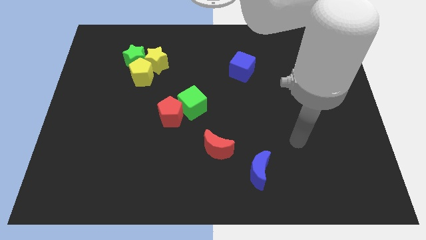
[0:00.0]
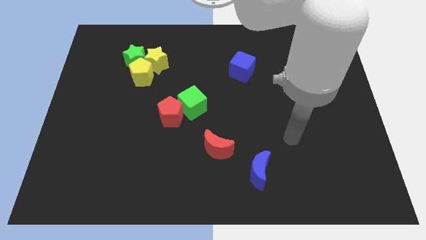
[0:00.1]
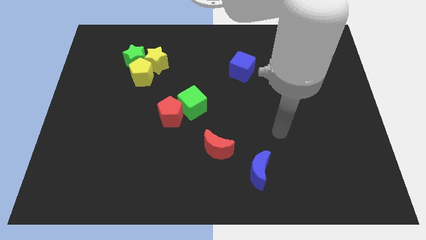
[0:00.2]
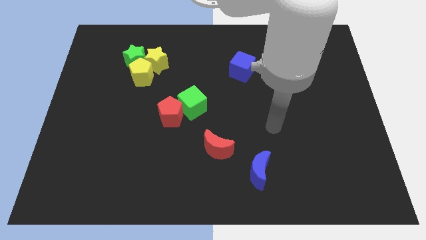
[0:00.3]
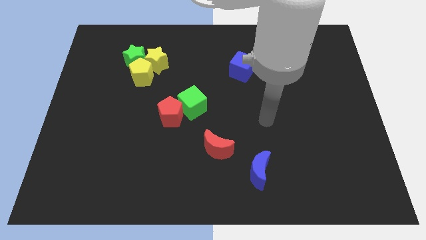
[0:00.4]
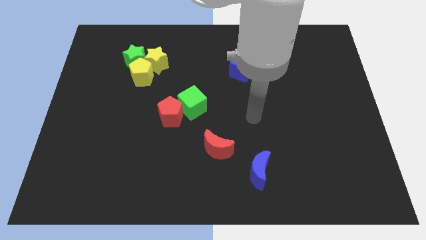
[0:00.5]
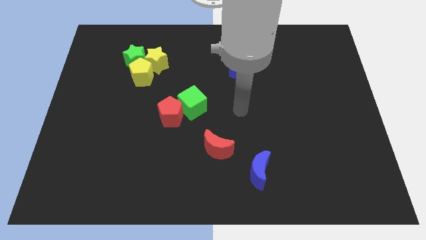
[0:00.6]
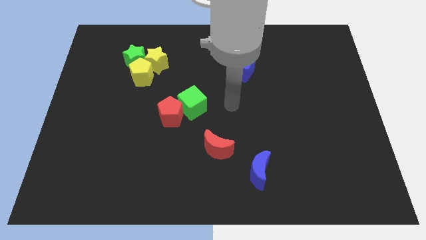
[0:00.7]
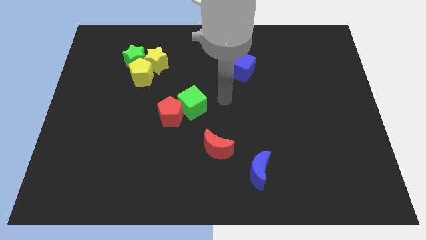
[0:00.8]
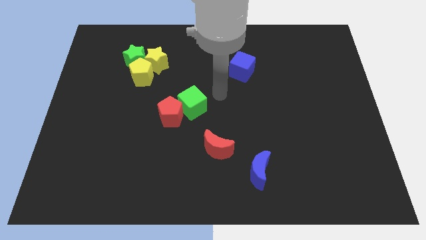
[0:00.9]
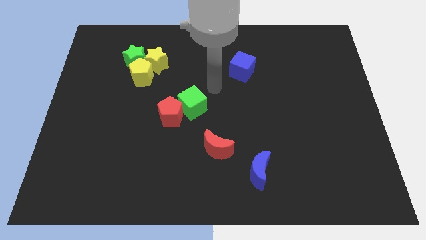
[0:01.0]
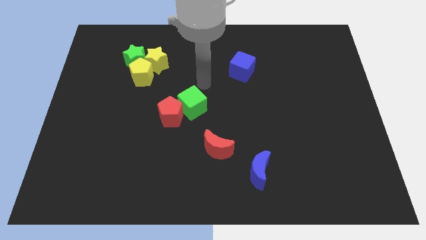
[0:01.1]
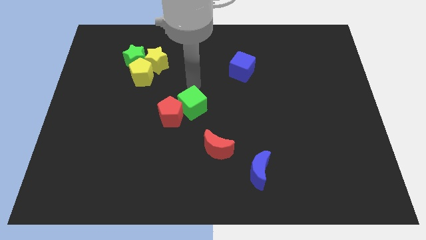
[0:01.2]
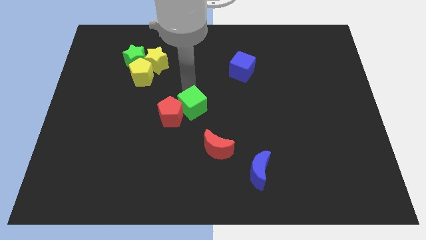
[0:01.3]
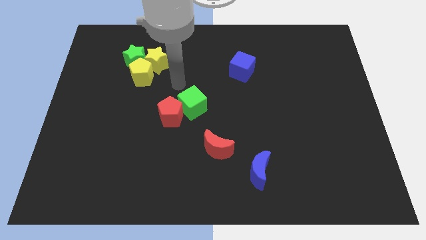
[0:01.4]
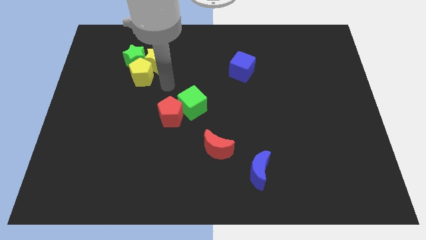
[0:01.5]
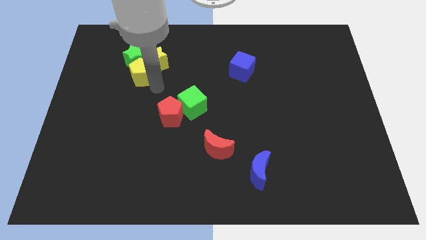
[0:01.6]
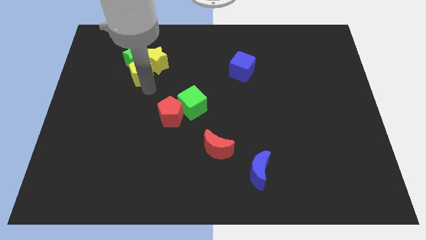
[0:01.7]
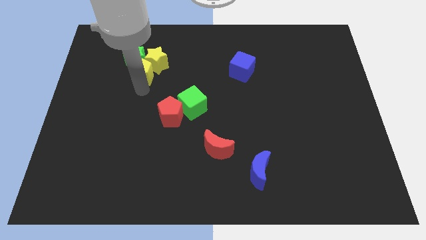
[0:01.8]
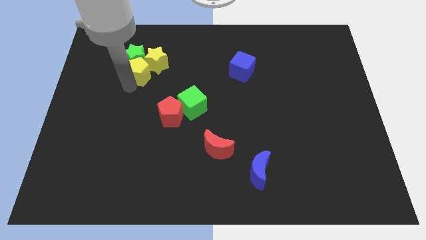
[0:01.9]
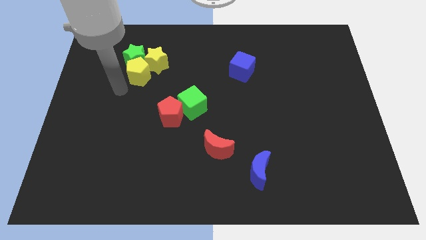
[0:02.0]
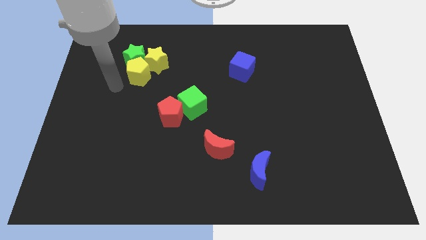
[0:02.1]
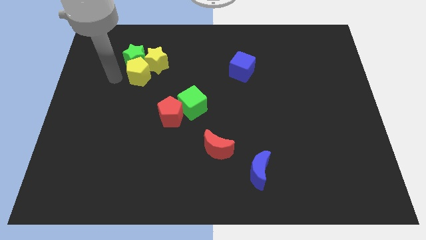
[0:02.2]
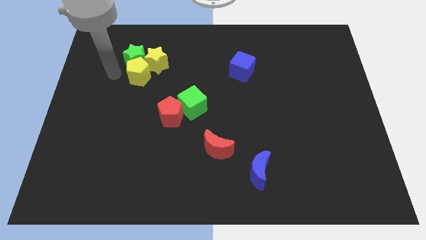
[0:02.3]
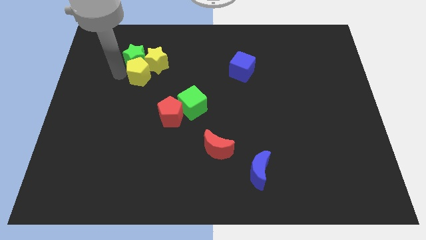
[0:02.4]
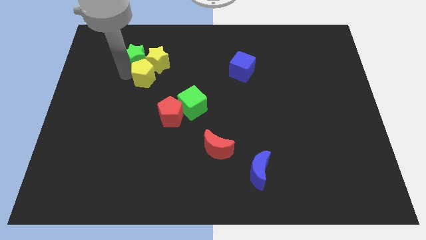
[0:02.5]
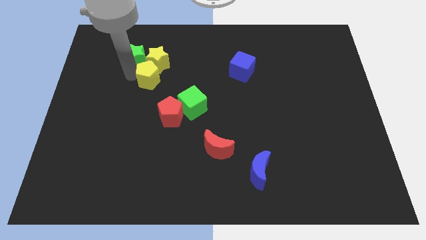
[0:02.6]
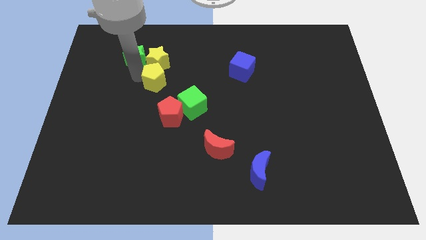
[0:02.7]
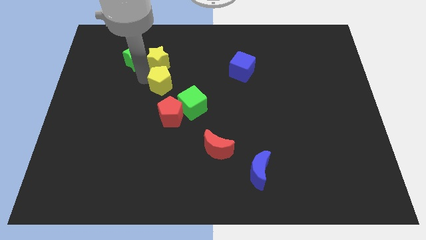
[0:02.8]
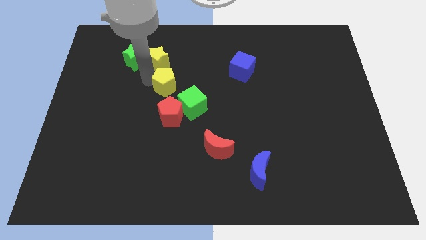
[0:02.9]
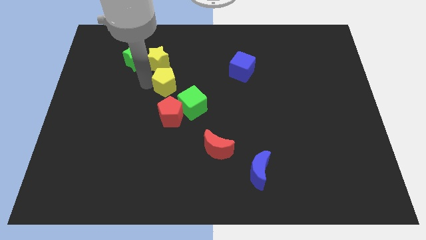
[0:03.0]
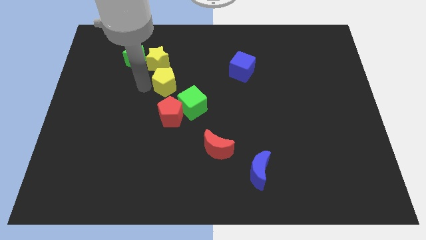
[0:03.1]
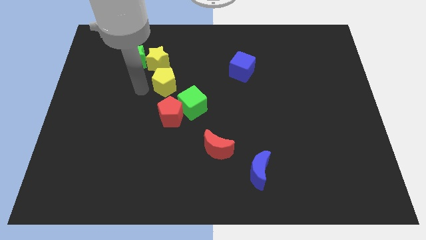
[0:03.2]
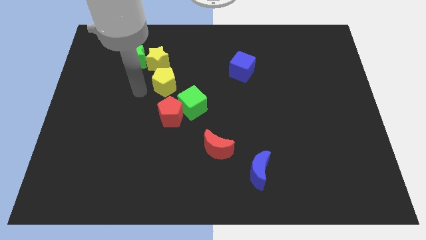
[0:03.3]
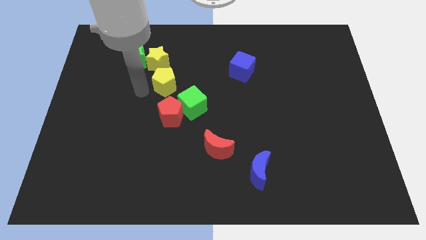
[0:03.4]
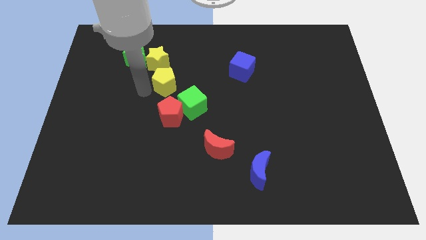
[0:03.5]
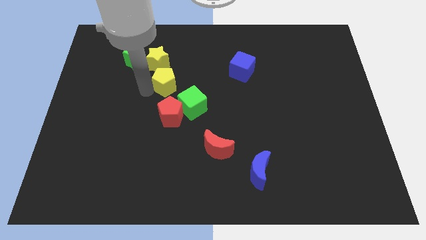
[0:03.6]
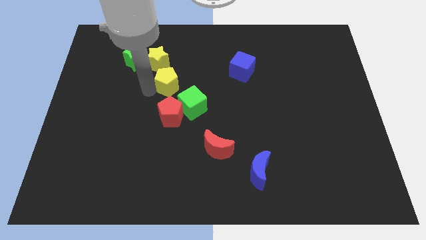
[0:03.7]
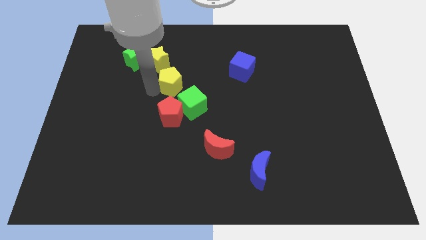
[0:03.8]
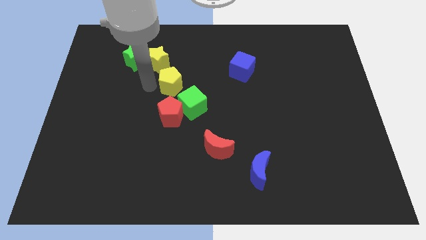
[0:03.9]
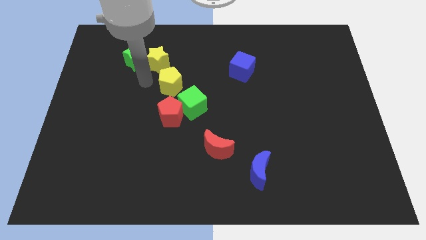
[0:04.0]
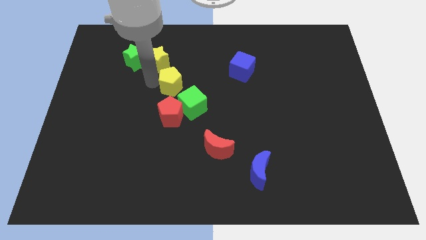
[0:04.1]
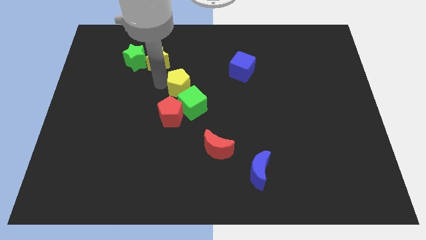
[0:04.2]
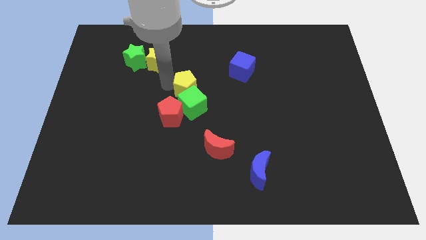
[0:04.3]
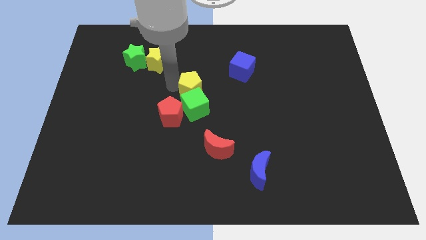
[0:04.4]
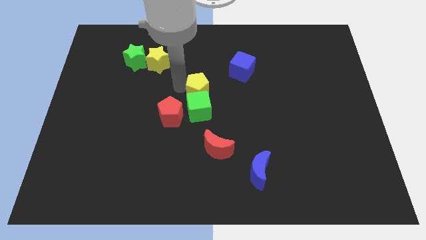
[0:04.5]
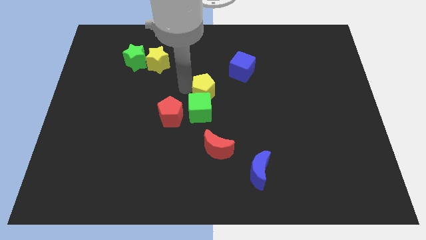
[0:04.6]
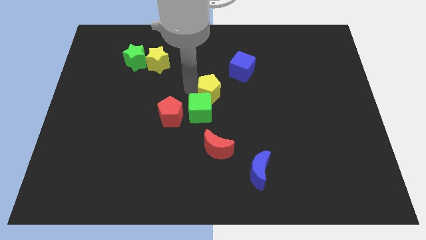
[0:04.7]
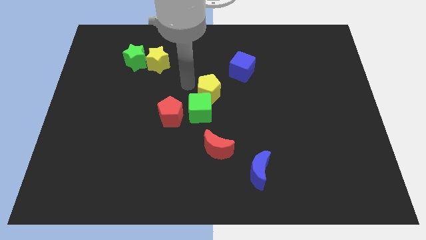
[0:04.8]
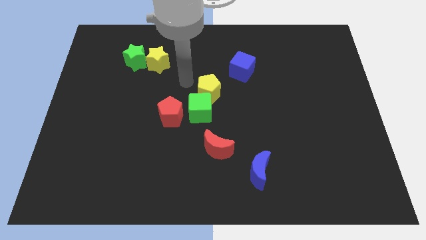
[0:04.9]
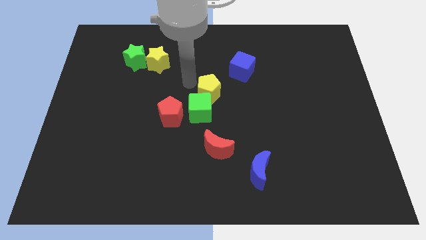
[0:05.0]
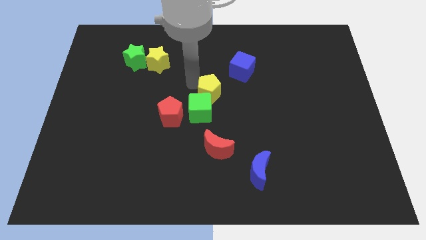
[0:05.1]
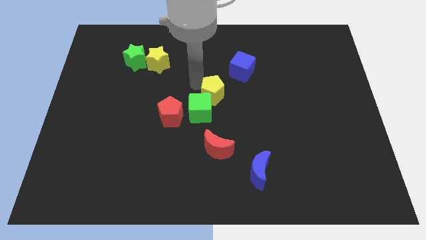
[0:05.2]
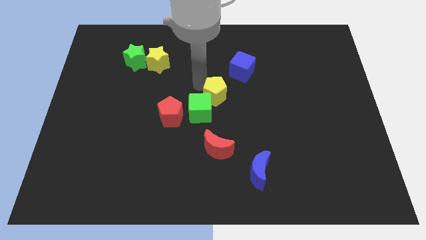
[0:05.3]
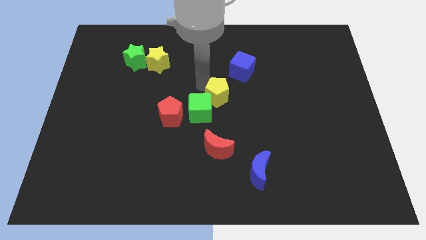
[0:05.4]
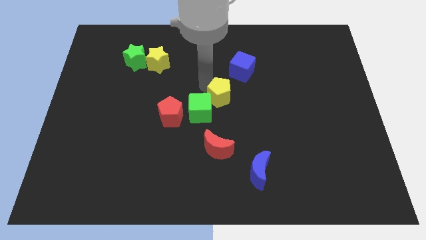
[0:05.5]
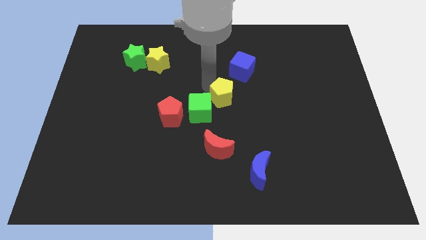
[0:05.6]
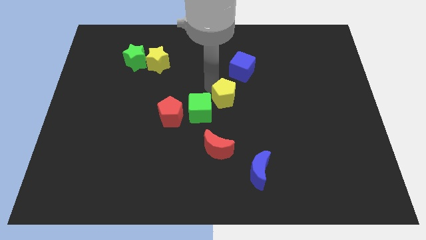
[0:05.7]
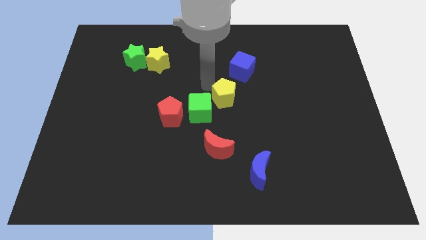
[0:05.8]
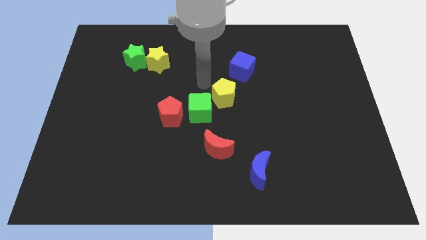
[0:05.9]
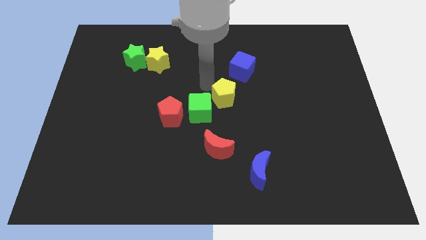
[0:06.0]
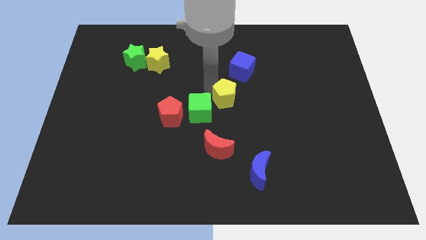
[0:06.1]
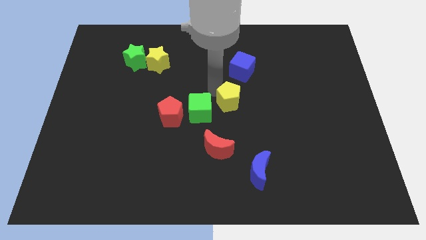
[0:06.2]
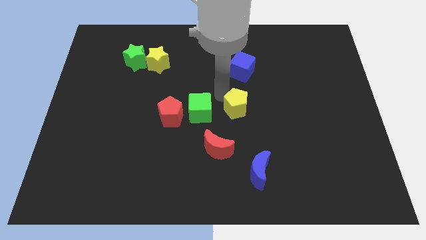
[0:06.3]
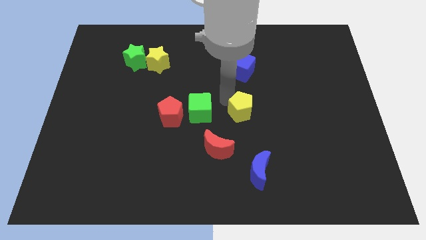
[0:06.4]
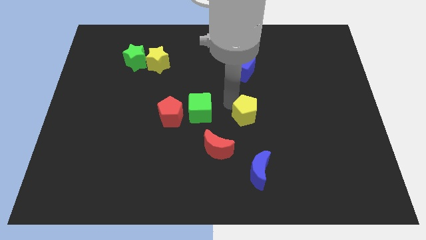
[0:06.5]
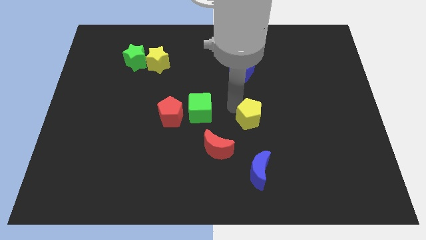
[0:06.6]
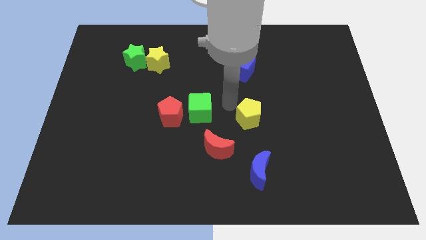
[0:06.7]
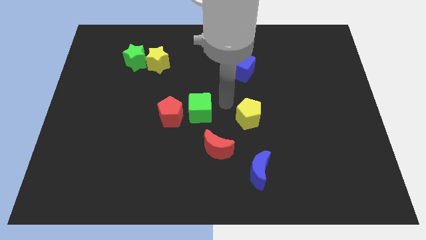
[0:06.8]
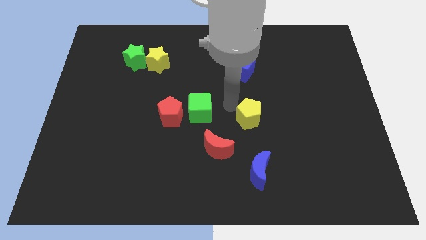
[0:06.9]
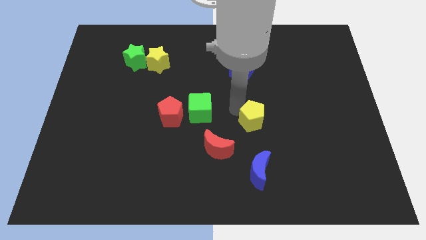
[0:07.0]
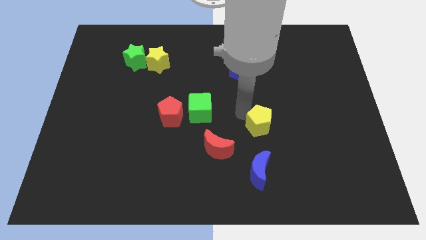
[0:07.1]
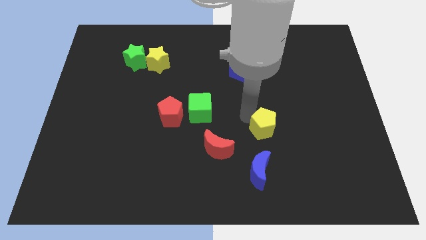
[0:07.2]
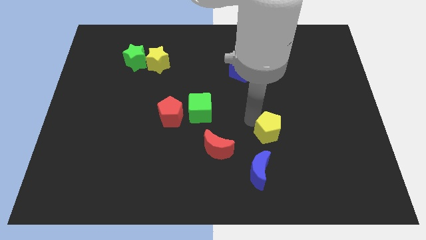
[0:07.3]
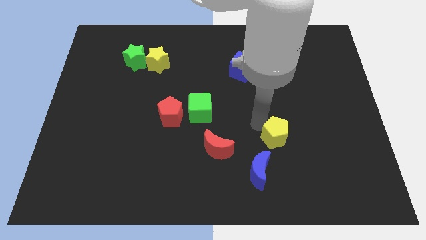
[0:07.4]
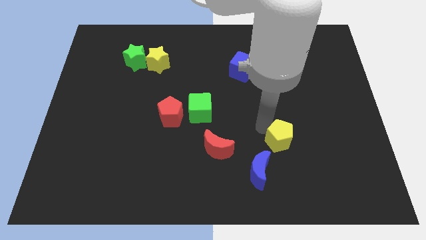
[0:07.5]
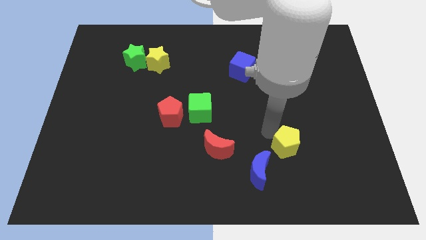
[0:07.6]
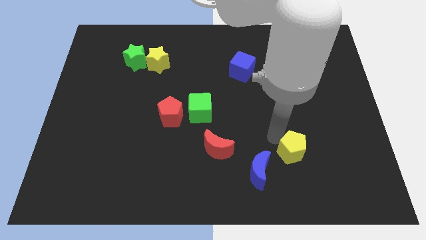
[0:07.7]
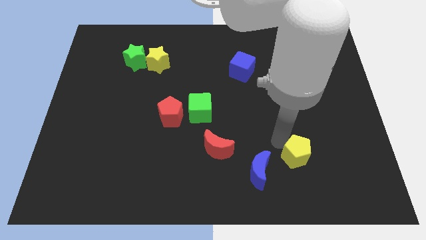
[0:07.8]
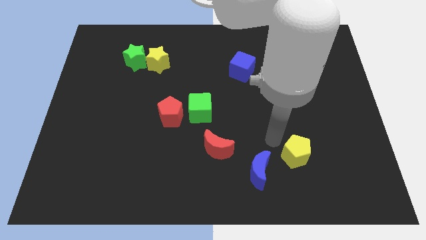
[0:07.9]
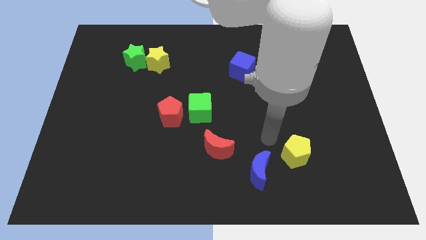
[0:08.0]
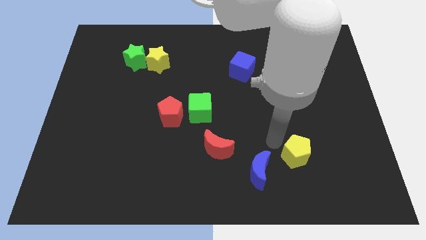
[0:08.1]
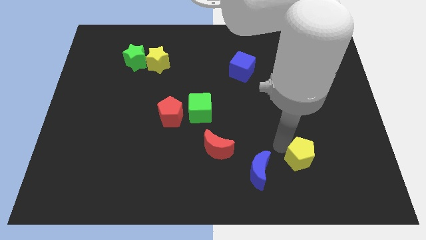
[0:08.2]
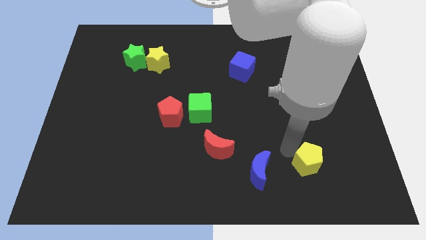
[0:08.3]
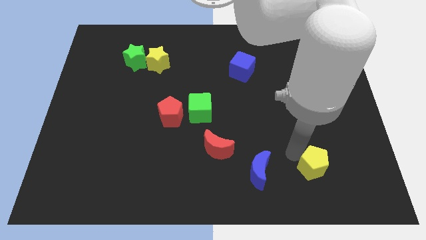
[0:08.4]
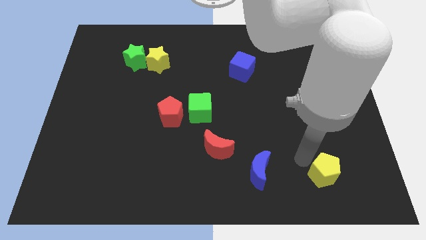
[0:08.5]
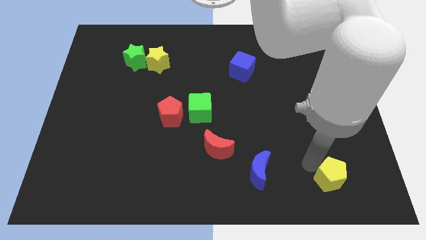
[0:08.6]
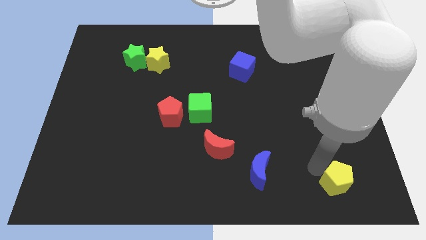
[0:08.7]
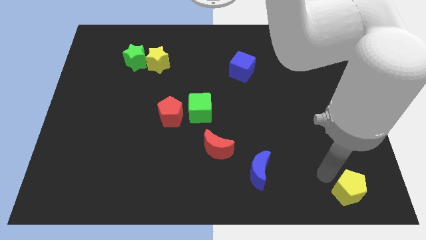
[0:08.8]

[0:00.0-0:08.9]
move the yellow pentagon to the bottom right
